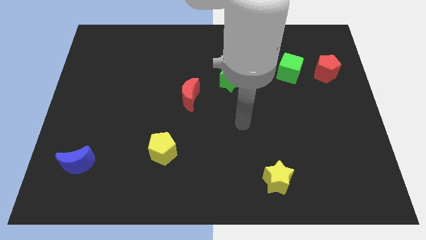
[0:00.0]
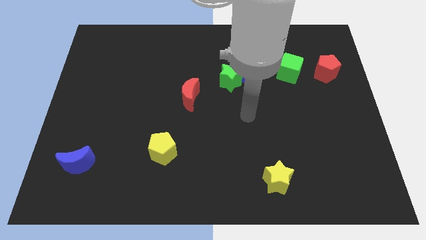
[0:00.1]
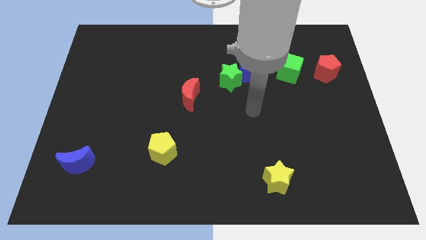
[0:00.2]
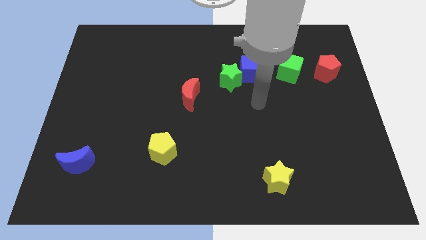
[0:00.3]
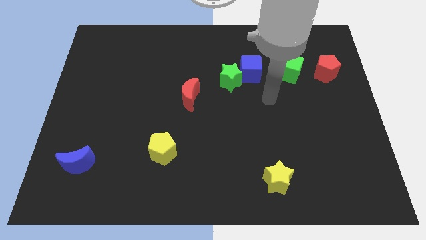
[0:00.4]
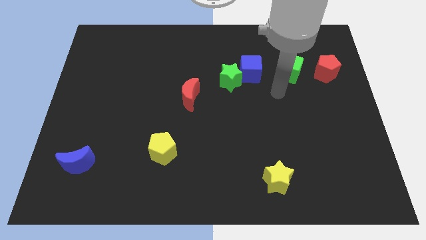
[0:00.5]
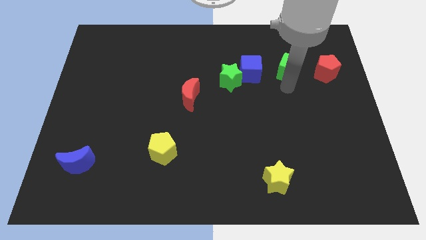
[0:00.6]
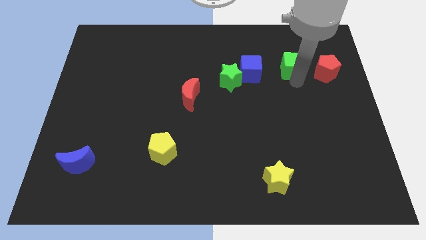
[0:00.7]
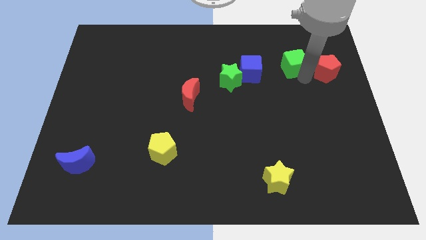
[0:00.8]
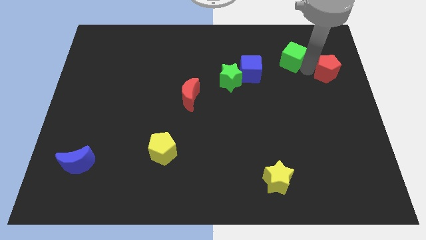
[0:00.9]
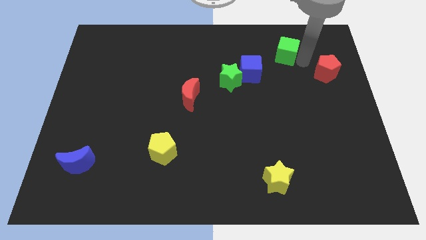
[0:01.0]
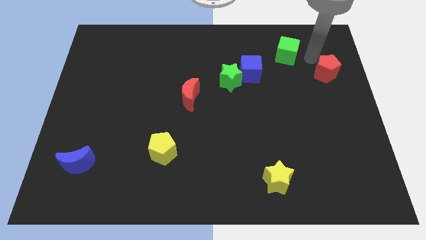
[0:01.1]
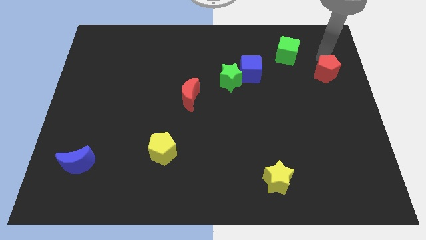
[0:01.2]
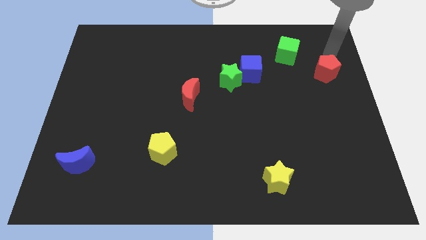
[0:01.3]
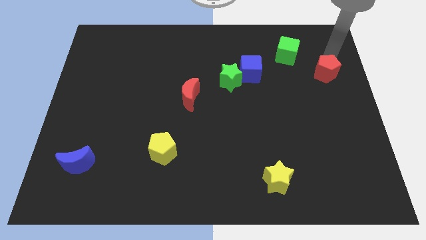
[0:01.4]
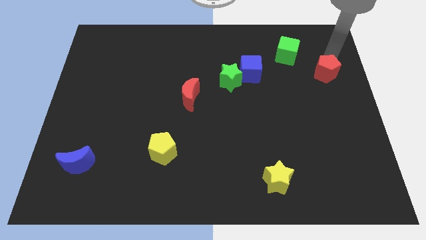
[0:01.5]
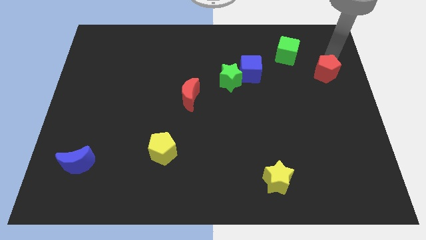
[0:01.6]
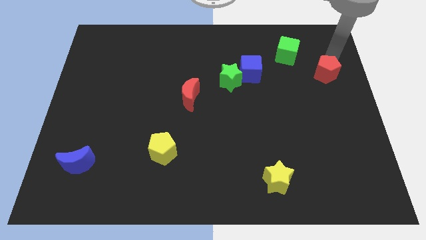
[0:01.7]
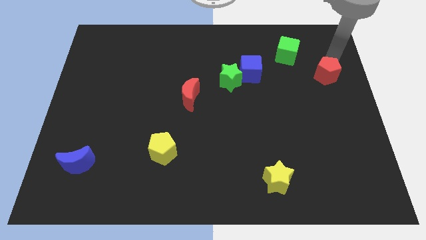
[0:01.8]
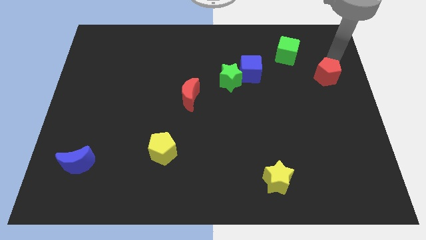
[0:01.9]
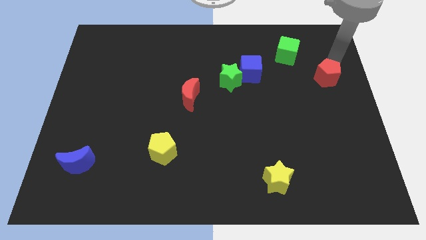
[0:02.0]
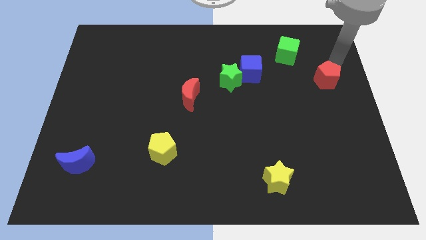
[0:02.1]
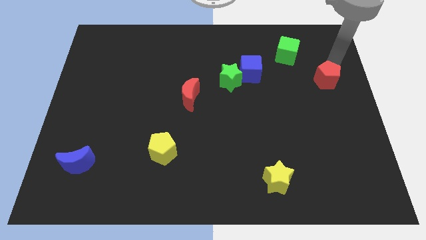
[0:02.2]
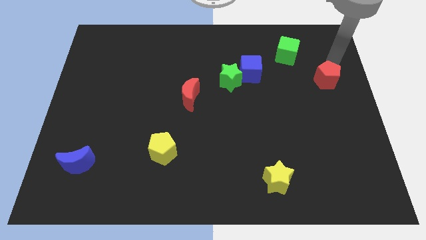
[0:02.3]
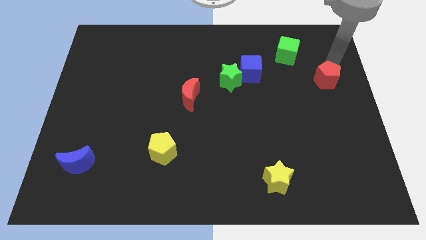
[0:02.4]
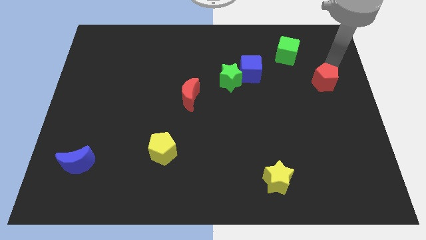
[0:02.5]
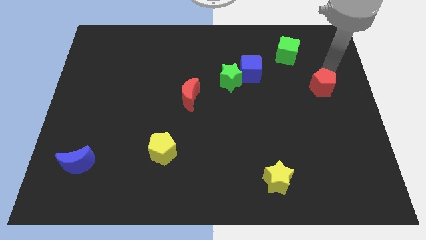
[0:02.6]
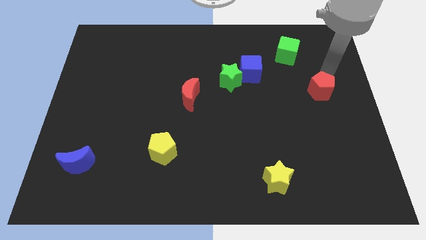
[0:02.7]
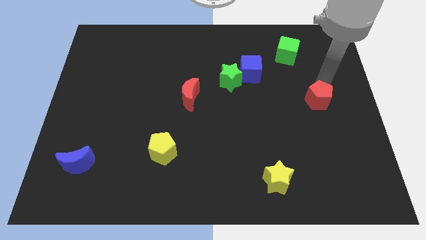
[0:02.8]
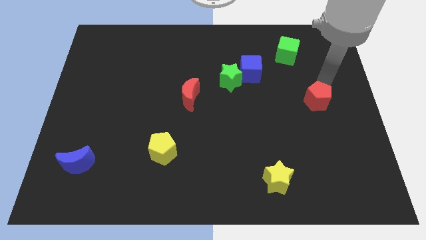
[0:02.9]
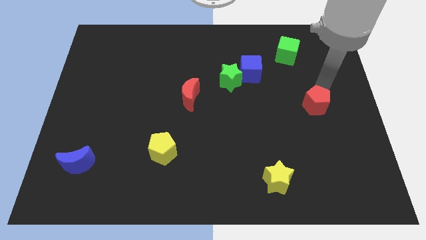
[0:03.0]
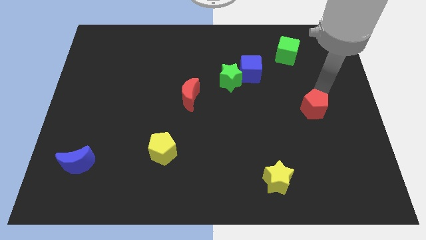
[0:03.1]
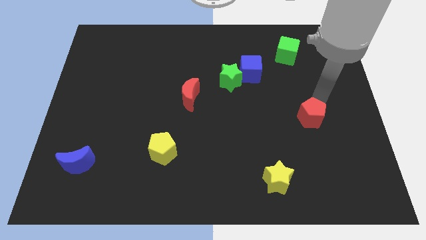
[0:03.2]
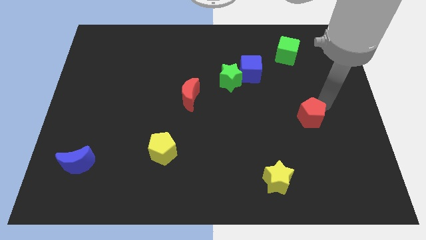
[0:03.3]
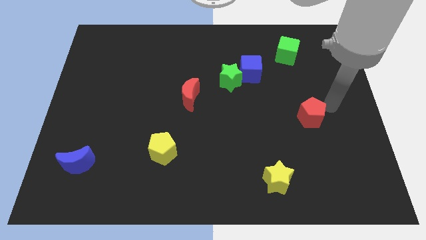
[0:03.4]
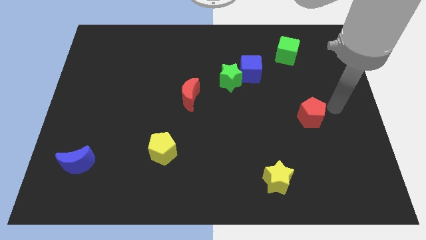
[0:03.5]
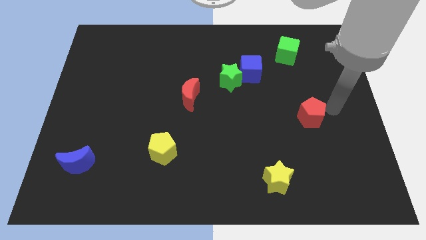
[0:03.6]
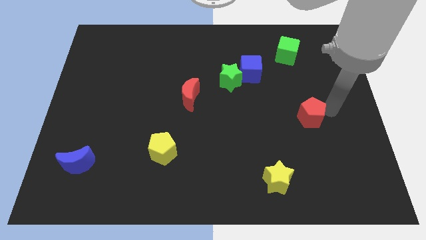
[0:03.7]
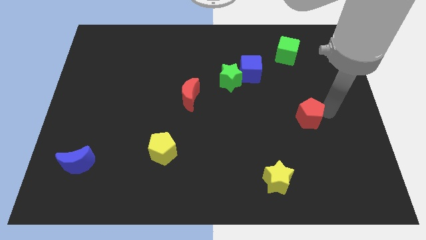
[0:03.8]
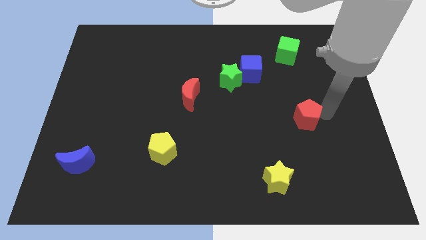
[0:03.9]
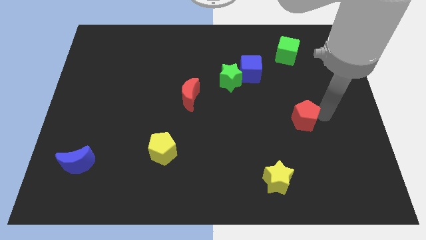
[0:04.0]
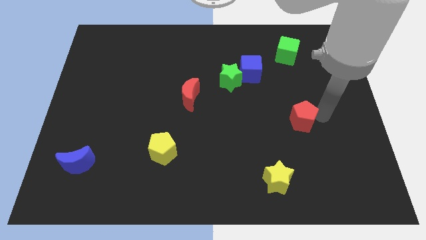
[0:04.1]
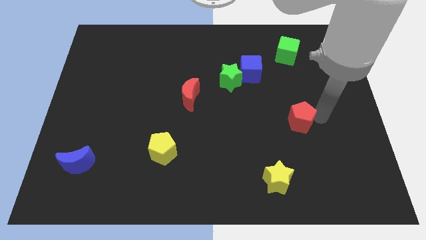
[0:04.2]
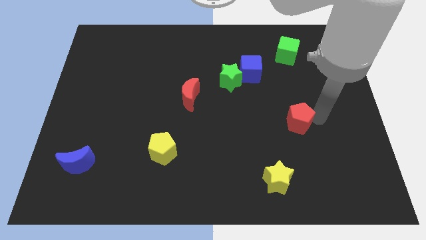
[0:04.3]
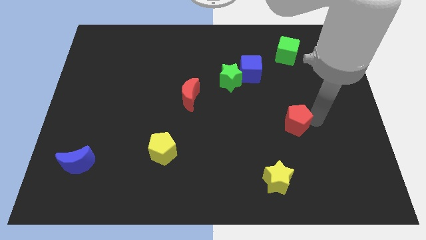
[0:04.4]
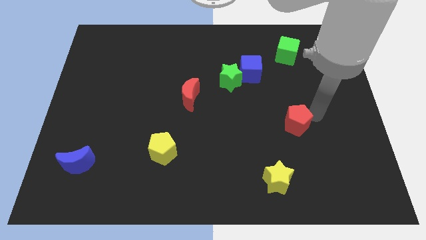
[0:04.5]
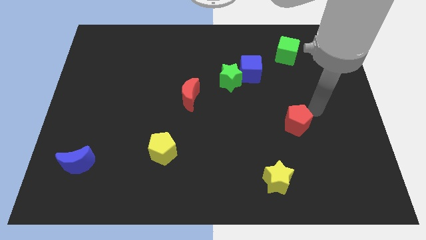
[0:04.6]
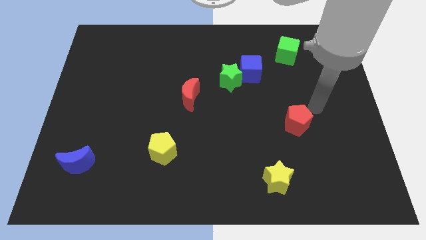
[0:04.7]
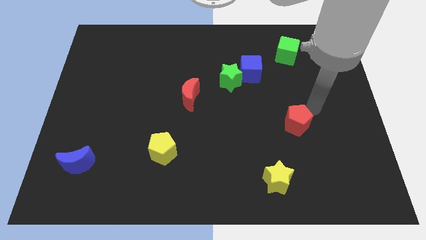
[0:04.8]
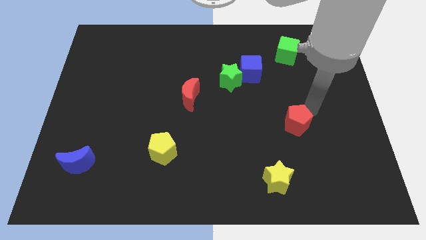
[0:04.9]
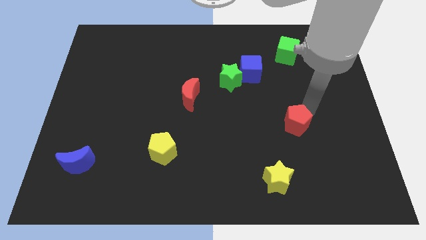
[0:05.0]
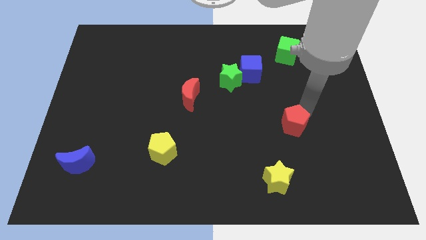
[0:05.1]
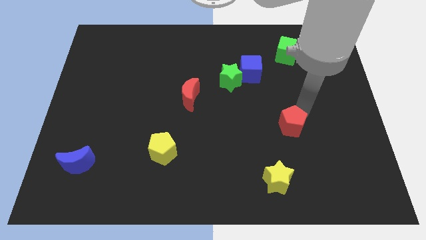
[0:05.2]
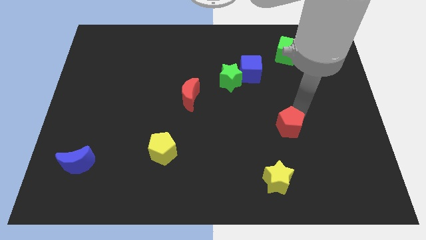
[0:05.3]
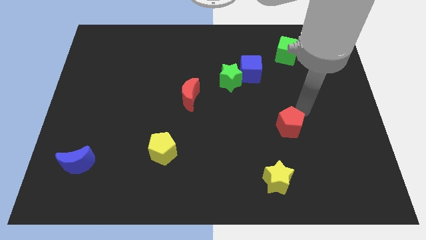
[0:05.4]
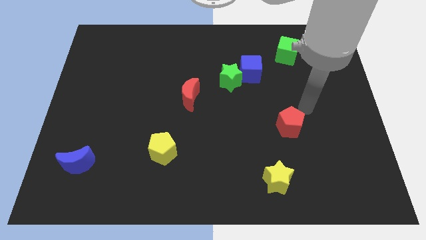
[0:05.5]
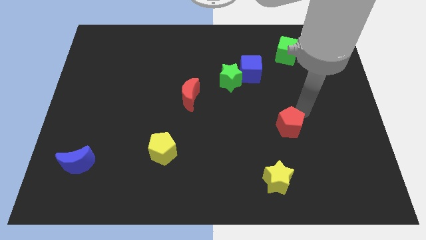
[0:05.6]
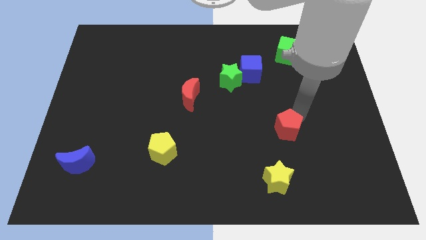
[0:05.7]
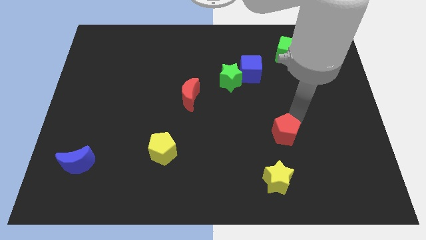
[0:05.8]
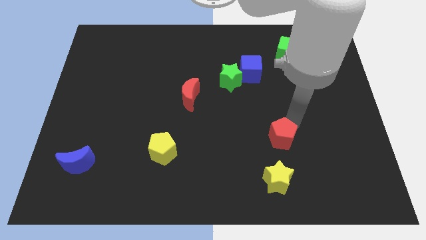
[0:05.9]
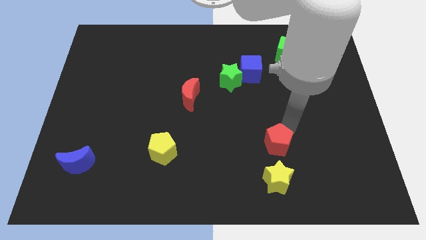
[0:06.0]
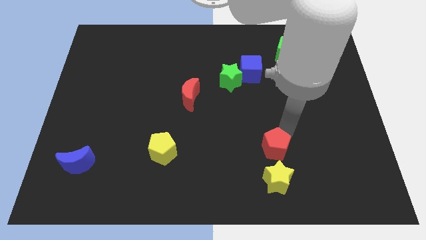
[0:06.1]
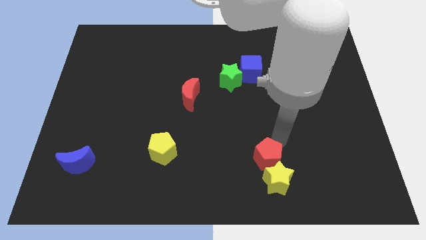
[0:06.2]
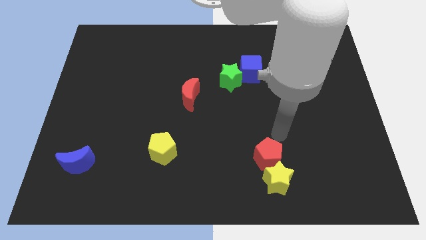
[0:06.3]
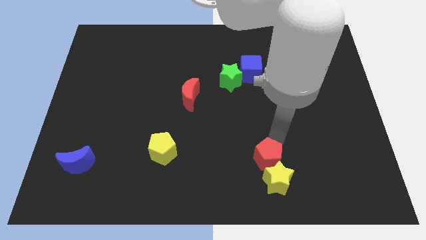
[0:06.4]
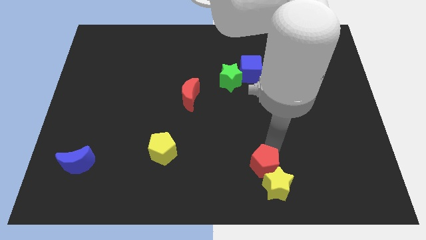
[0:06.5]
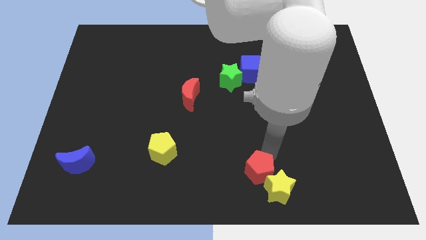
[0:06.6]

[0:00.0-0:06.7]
move the red pentagon to the bottom side

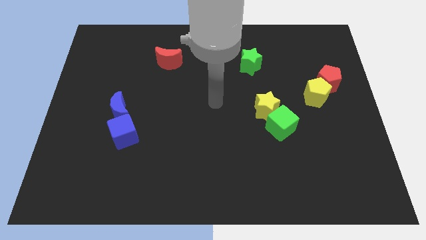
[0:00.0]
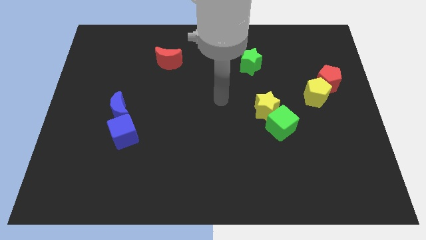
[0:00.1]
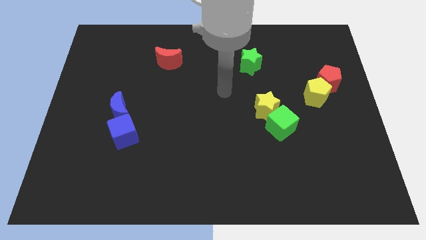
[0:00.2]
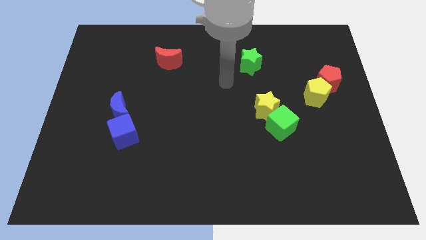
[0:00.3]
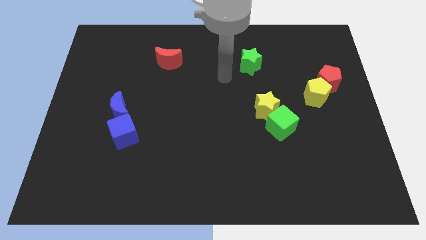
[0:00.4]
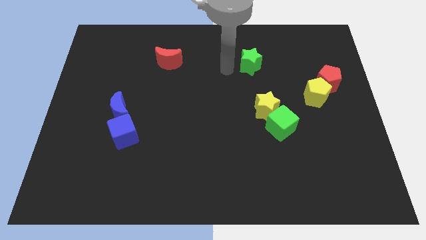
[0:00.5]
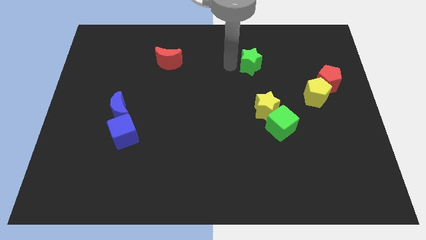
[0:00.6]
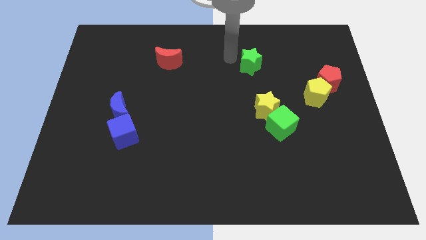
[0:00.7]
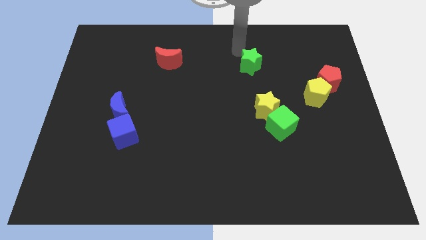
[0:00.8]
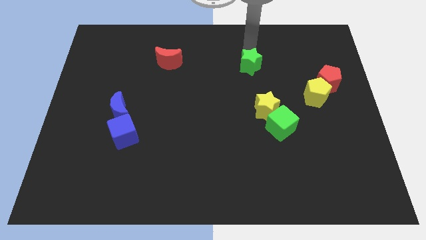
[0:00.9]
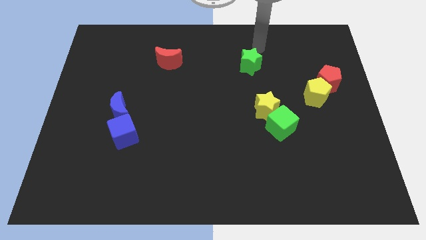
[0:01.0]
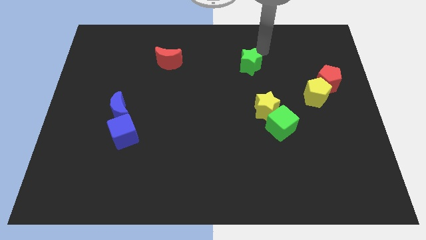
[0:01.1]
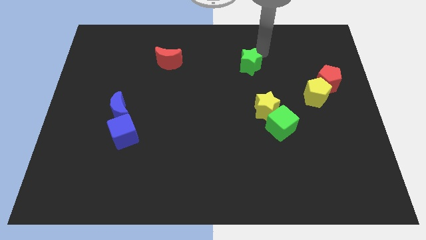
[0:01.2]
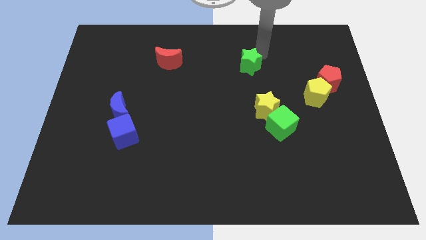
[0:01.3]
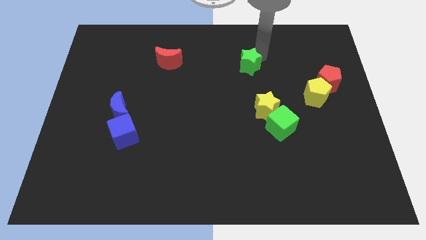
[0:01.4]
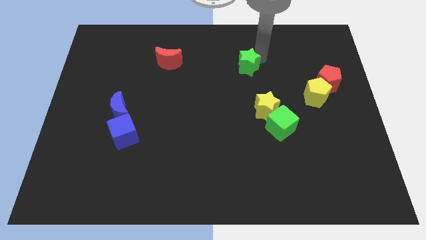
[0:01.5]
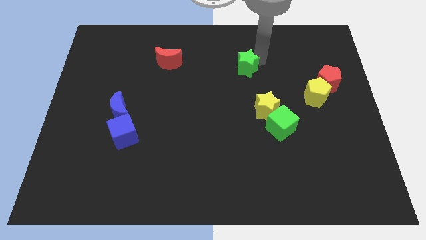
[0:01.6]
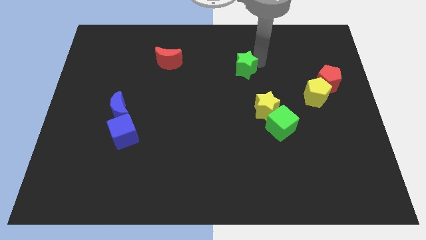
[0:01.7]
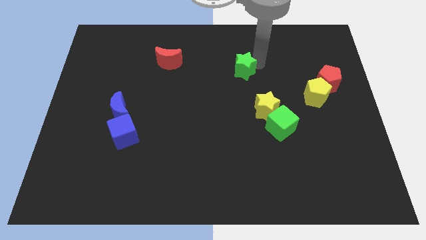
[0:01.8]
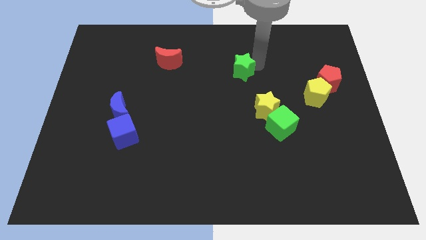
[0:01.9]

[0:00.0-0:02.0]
push the green star to the middle
